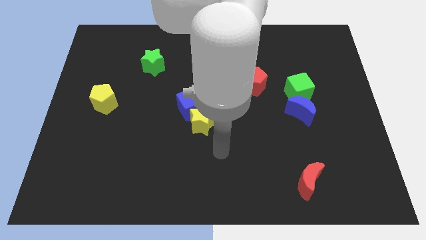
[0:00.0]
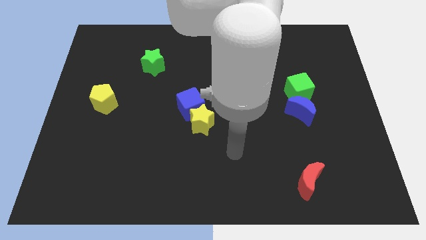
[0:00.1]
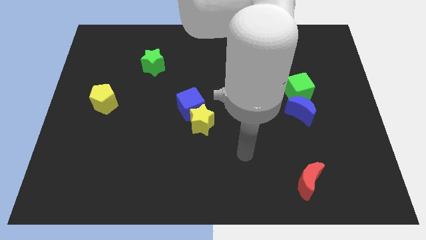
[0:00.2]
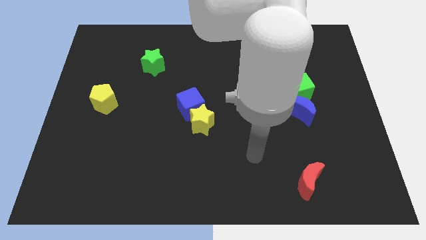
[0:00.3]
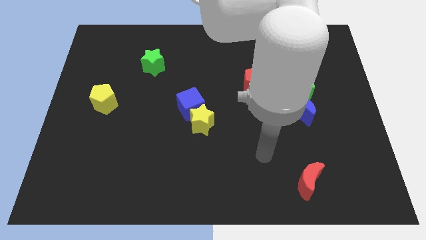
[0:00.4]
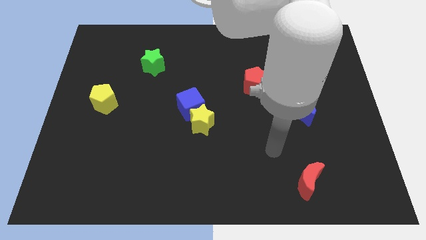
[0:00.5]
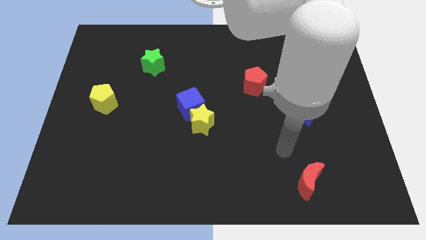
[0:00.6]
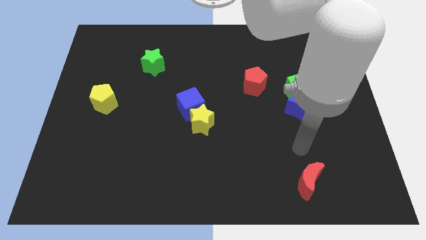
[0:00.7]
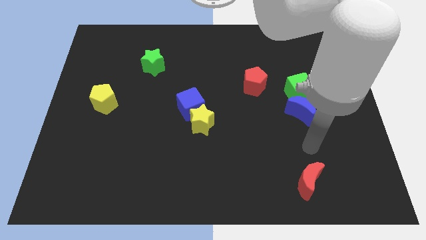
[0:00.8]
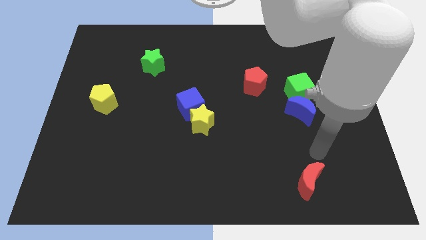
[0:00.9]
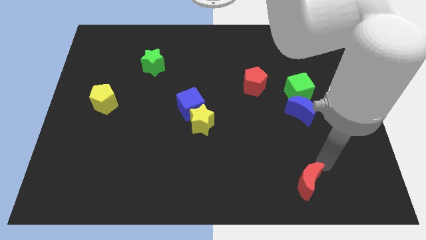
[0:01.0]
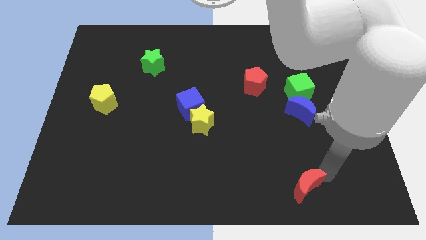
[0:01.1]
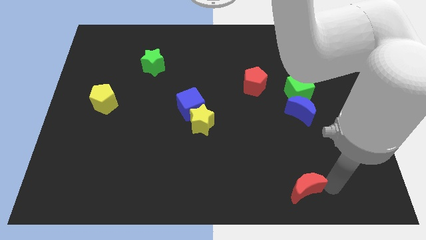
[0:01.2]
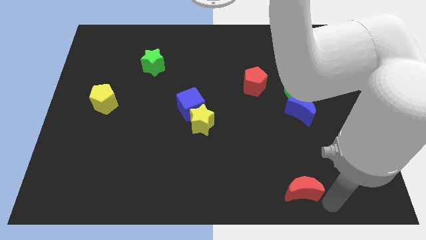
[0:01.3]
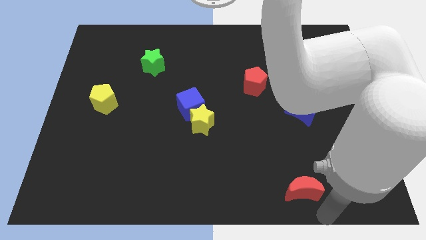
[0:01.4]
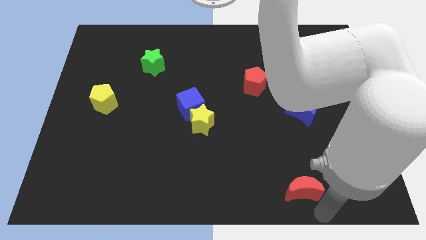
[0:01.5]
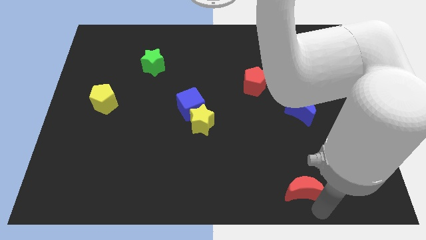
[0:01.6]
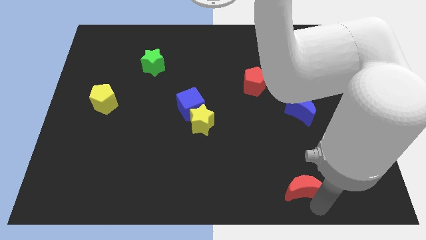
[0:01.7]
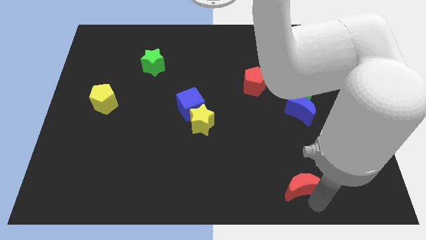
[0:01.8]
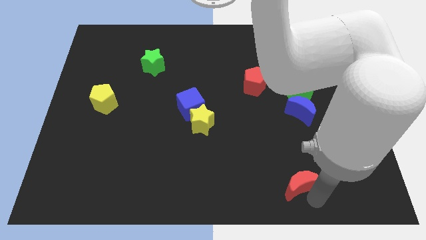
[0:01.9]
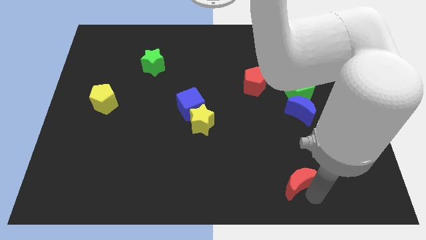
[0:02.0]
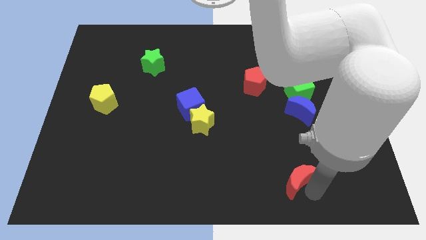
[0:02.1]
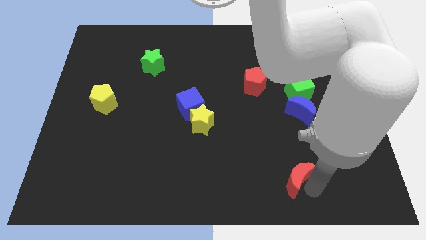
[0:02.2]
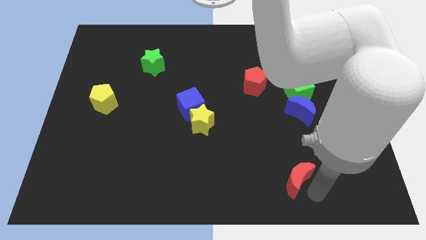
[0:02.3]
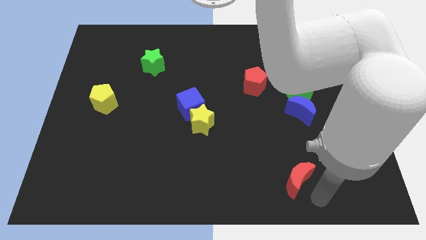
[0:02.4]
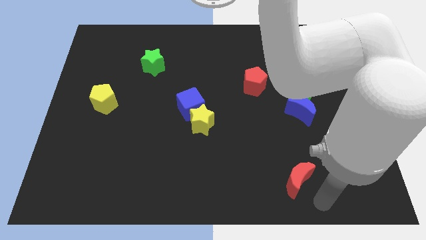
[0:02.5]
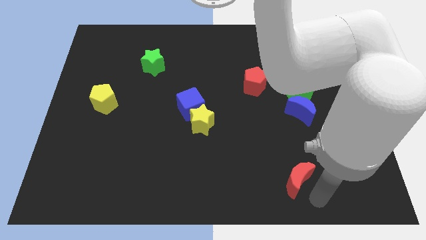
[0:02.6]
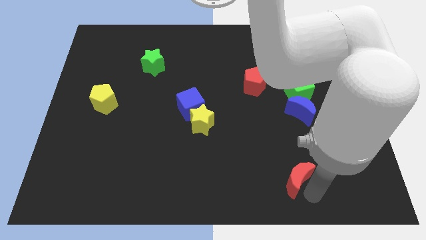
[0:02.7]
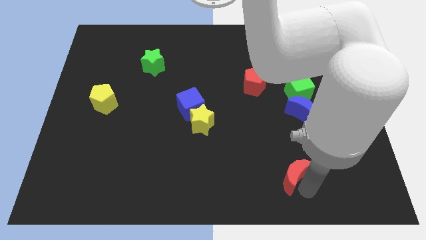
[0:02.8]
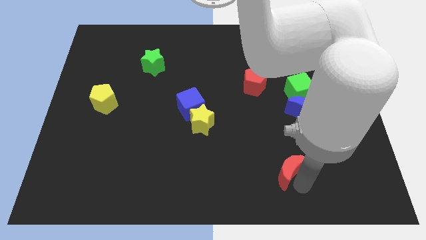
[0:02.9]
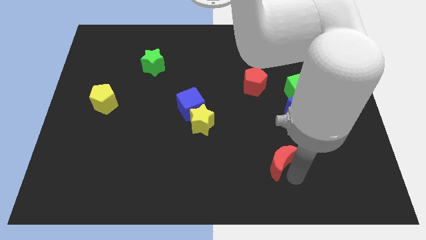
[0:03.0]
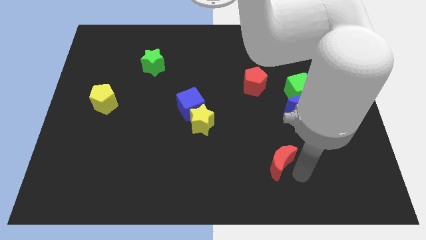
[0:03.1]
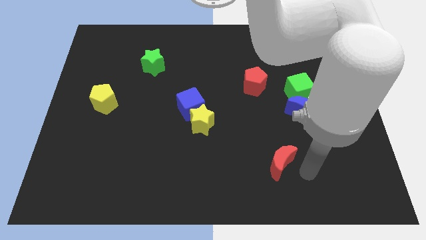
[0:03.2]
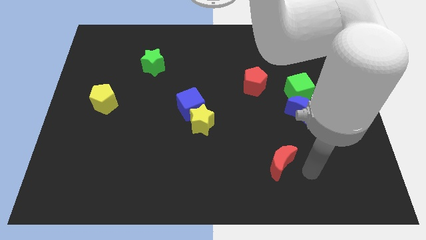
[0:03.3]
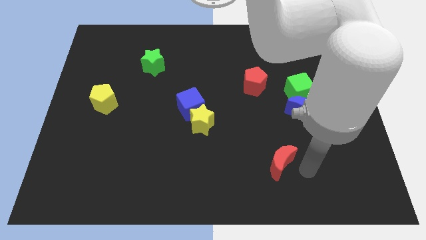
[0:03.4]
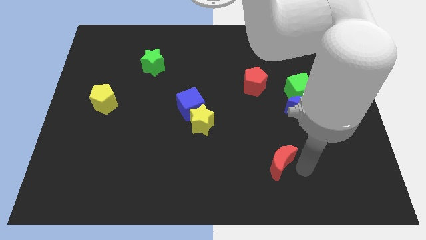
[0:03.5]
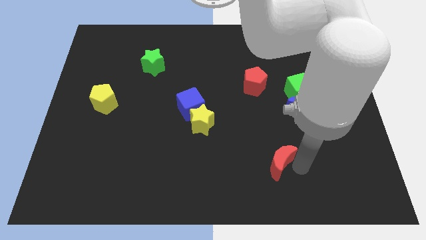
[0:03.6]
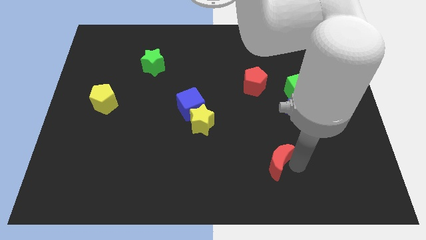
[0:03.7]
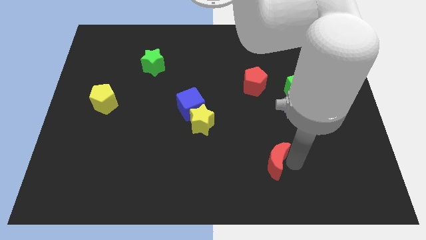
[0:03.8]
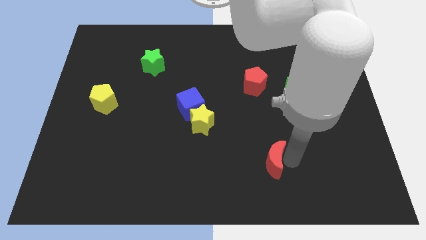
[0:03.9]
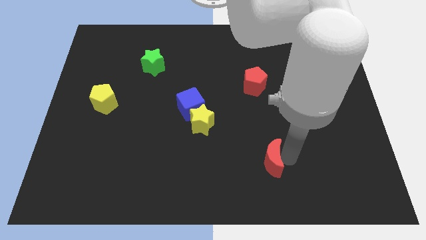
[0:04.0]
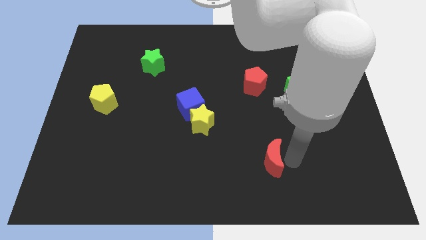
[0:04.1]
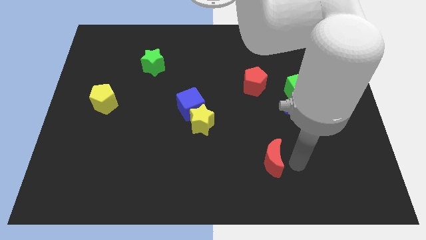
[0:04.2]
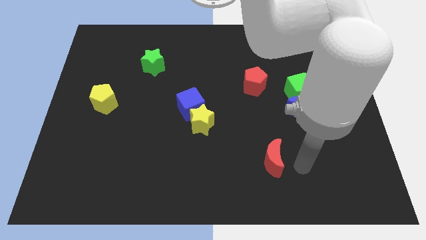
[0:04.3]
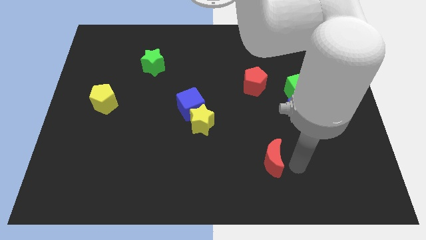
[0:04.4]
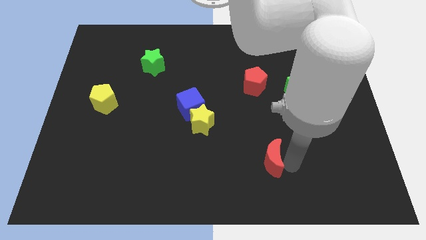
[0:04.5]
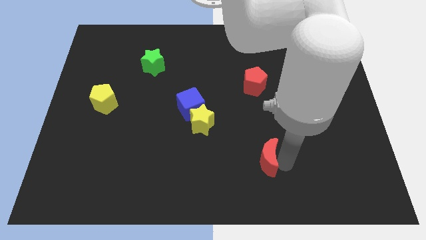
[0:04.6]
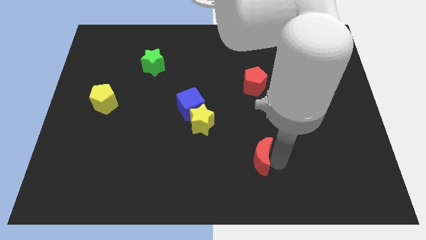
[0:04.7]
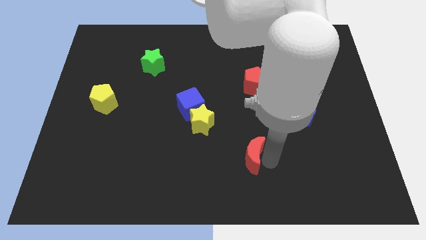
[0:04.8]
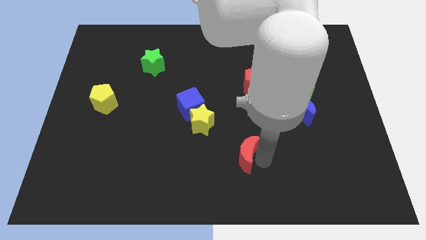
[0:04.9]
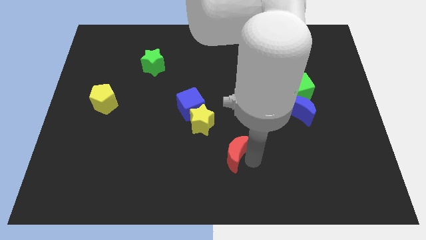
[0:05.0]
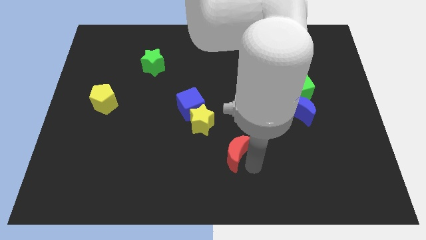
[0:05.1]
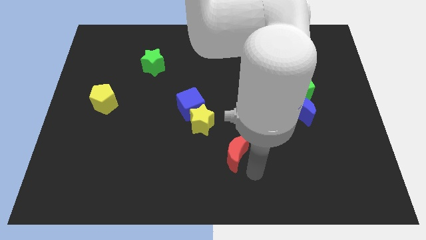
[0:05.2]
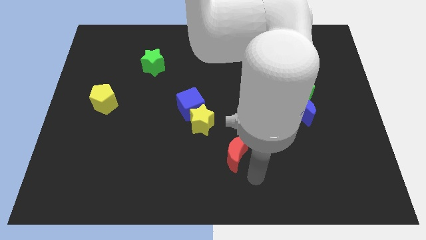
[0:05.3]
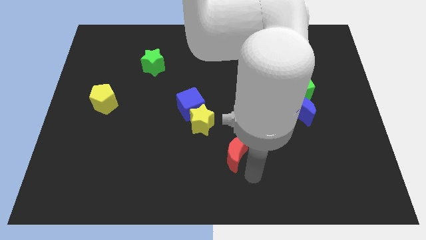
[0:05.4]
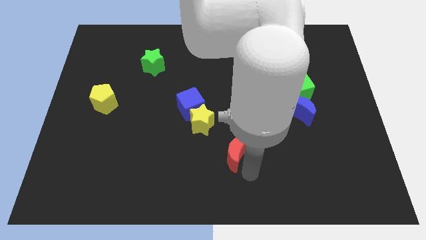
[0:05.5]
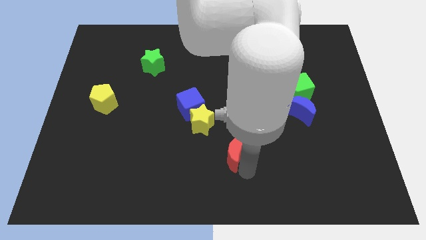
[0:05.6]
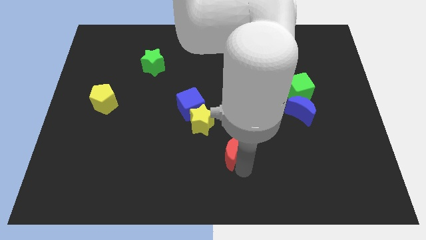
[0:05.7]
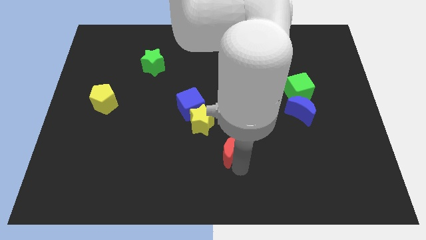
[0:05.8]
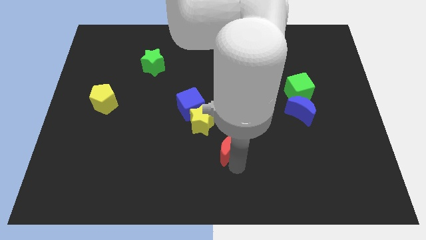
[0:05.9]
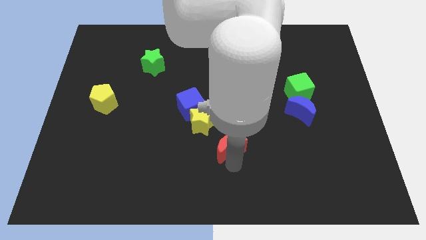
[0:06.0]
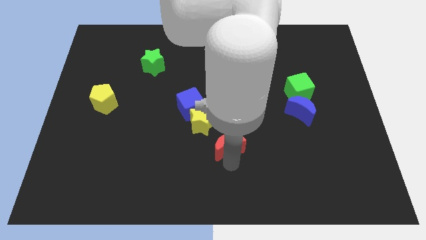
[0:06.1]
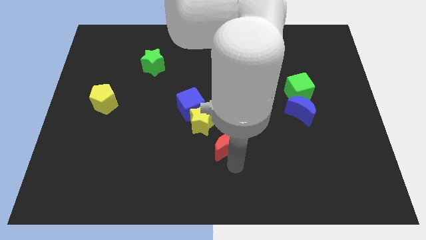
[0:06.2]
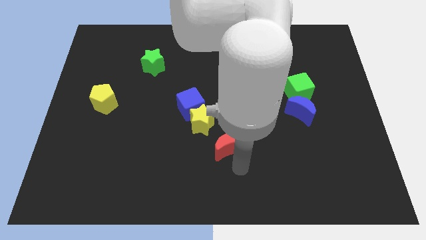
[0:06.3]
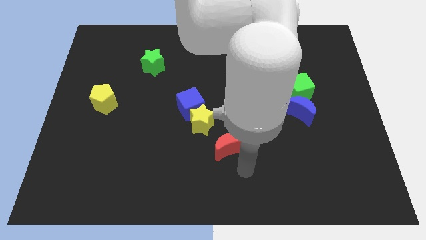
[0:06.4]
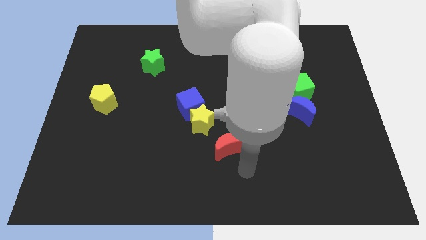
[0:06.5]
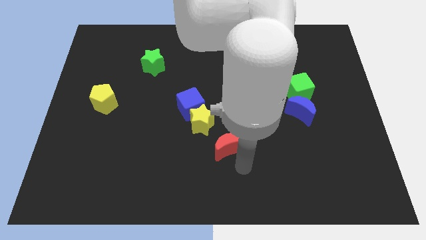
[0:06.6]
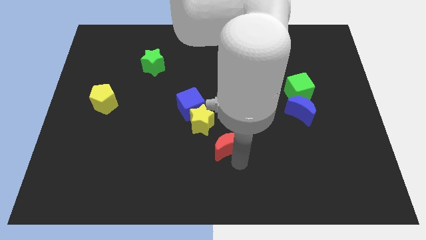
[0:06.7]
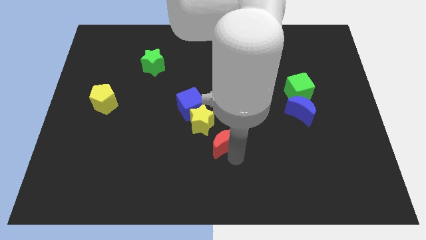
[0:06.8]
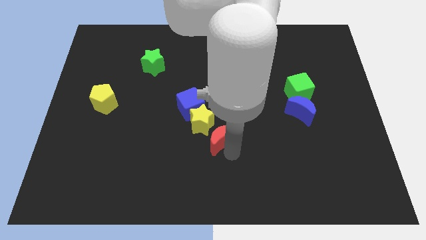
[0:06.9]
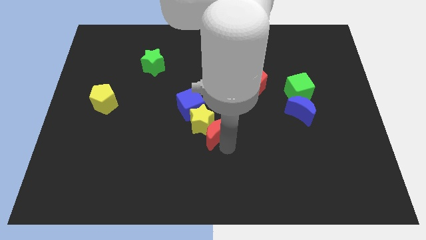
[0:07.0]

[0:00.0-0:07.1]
slide the red moon close to the yellow star
